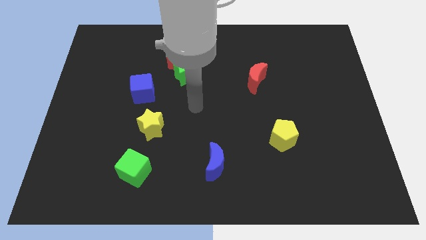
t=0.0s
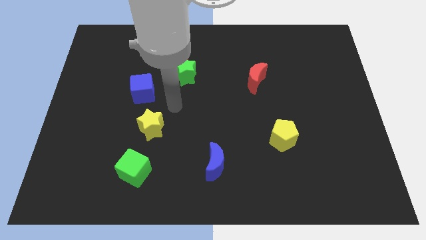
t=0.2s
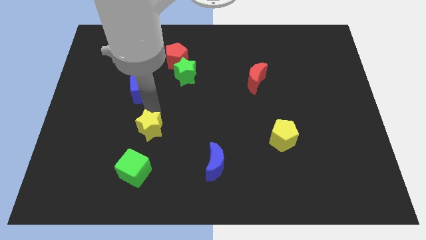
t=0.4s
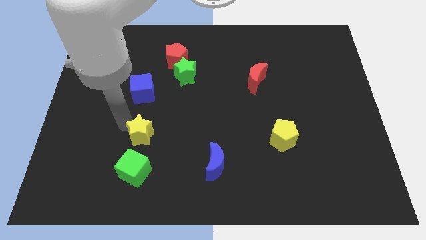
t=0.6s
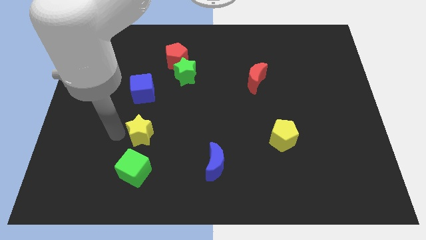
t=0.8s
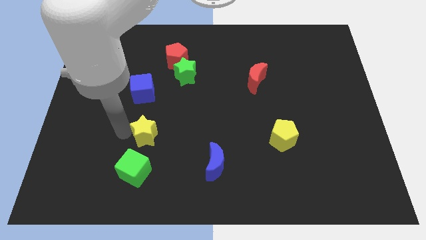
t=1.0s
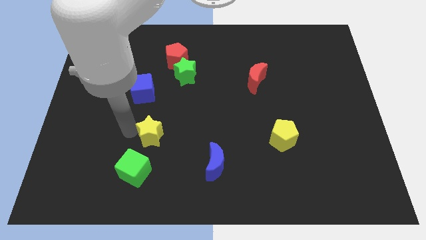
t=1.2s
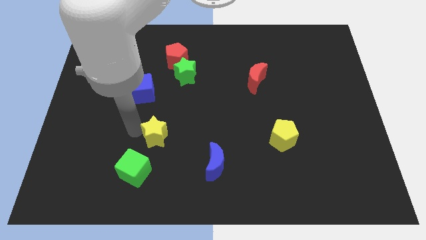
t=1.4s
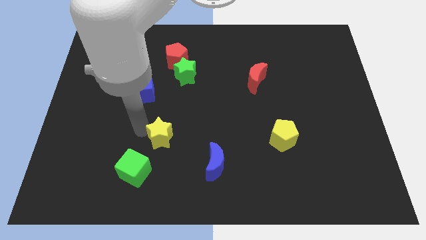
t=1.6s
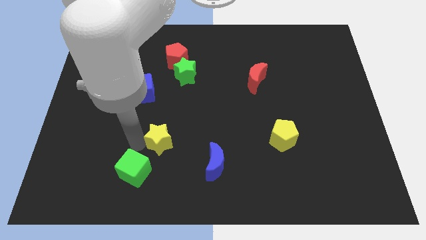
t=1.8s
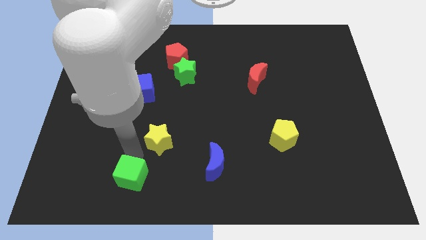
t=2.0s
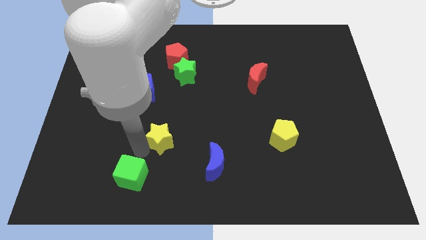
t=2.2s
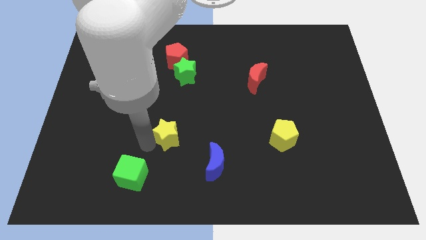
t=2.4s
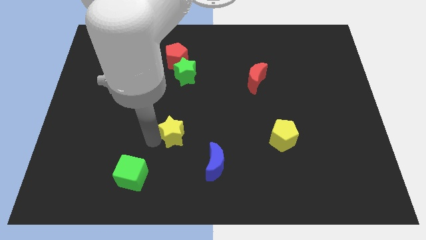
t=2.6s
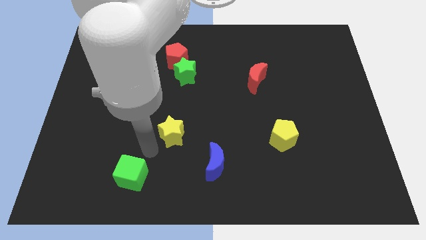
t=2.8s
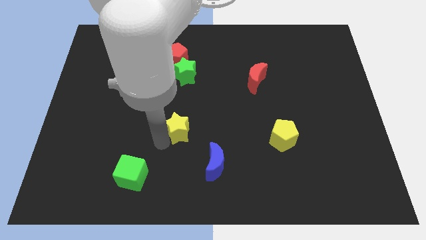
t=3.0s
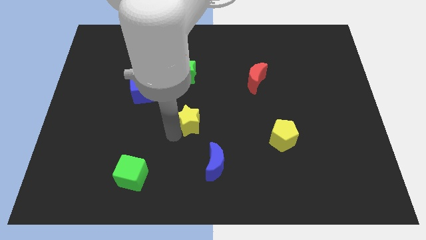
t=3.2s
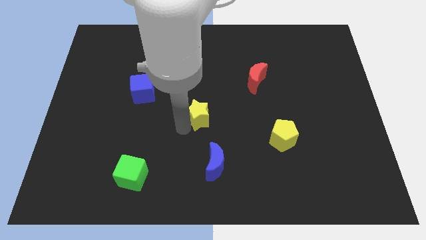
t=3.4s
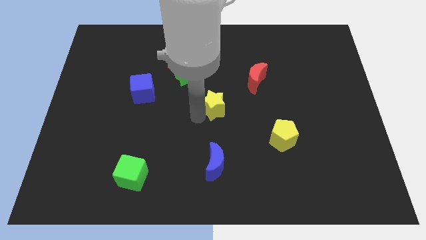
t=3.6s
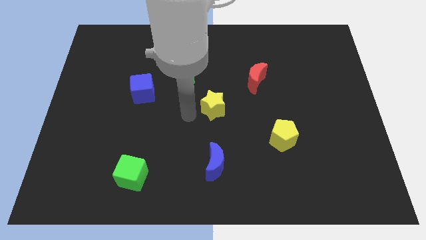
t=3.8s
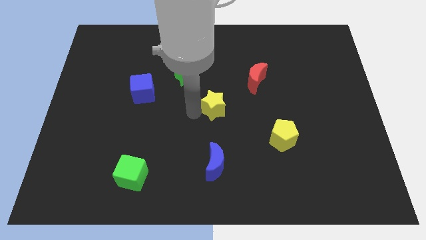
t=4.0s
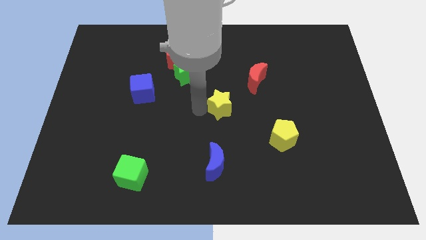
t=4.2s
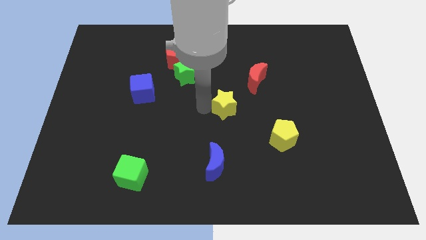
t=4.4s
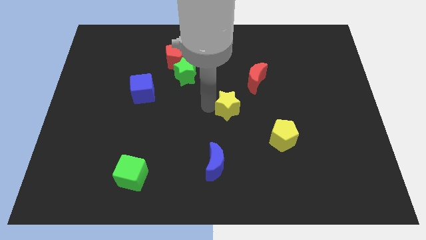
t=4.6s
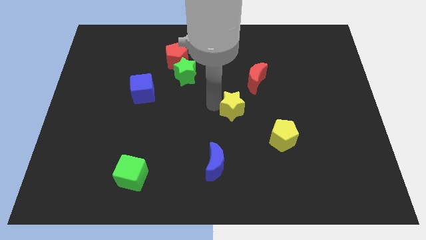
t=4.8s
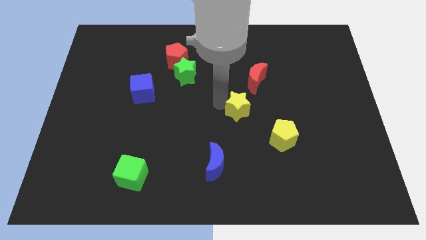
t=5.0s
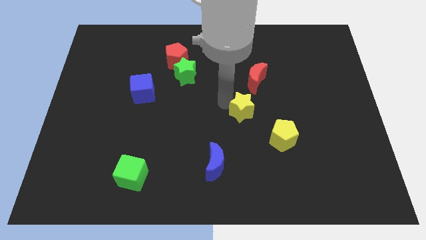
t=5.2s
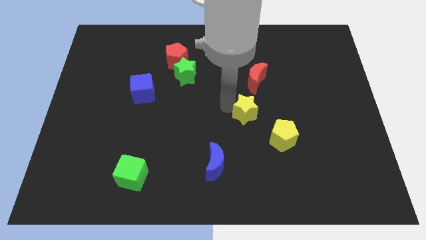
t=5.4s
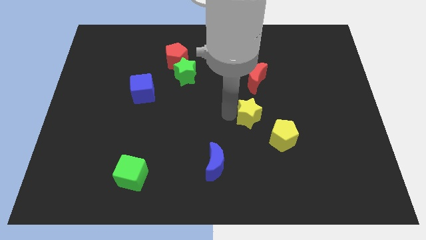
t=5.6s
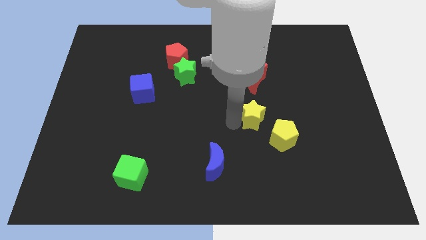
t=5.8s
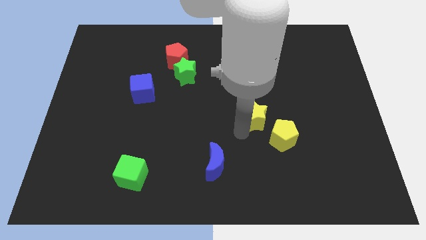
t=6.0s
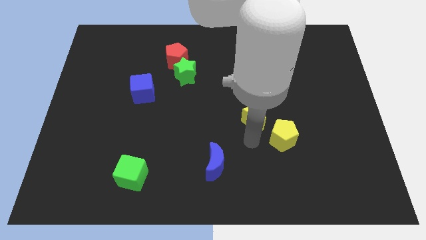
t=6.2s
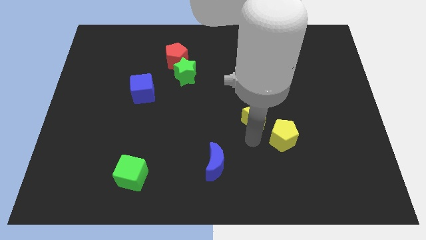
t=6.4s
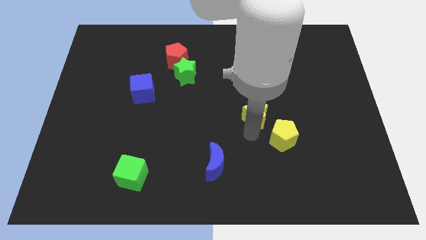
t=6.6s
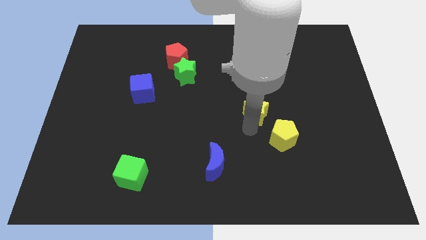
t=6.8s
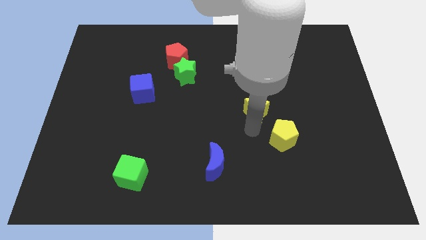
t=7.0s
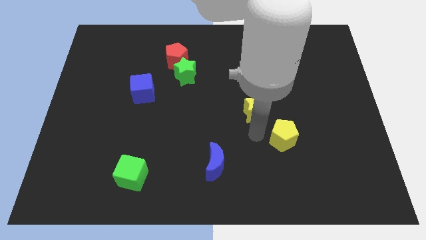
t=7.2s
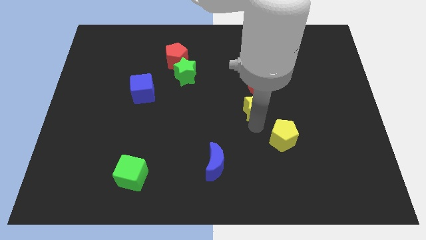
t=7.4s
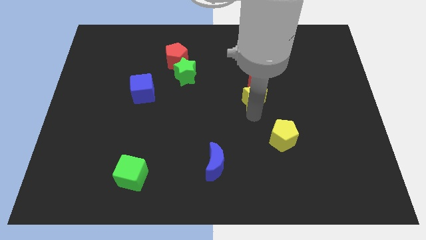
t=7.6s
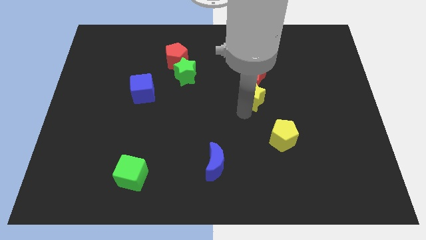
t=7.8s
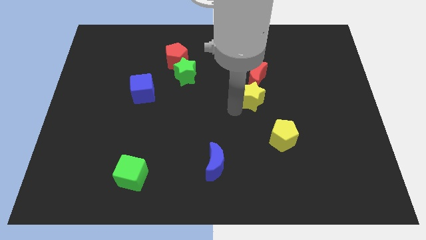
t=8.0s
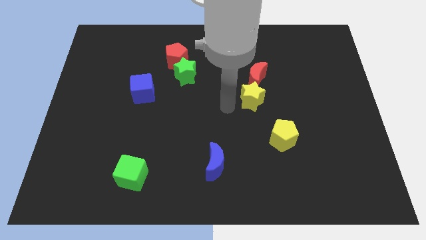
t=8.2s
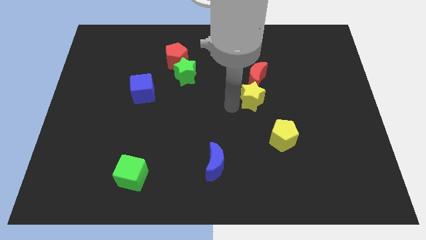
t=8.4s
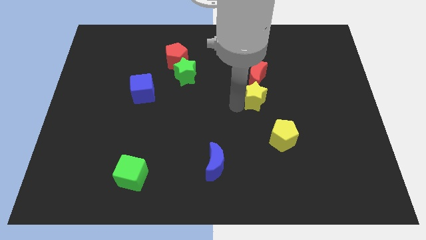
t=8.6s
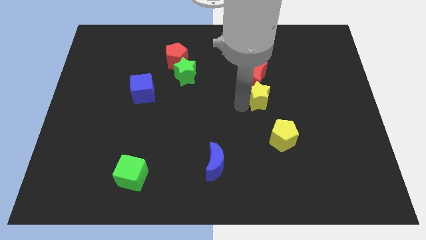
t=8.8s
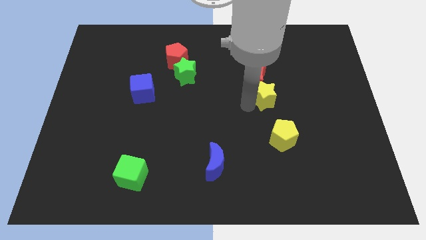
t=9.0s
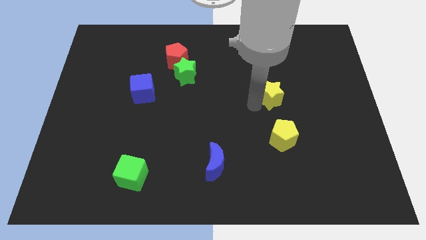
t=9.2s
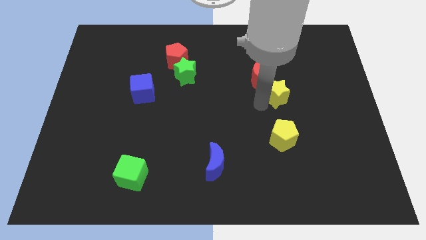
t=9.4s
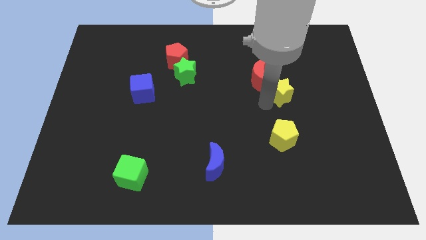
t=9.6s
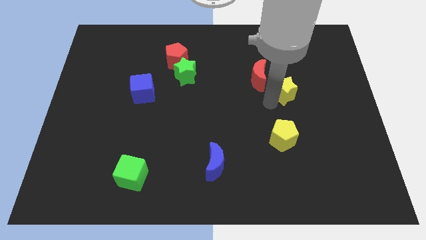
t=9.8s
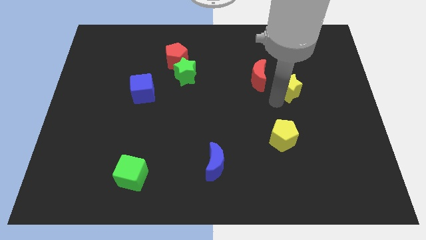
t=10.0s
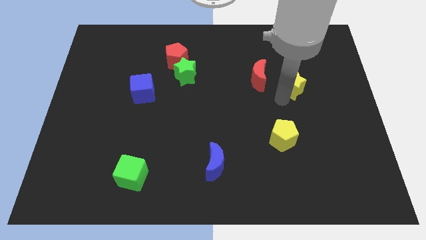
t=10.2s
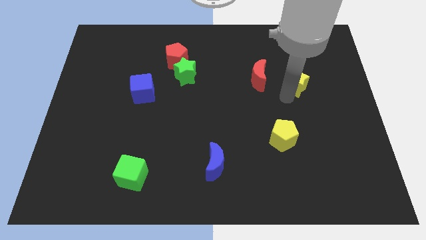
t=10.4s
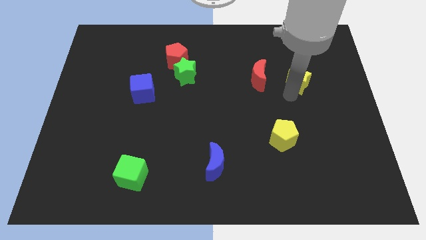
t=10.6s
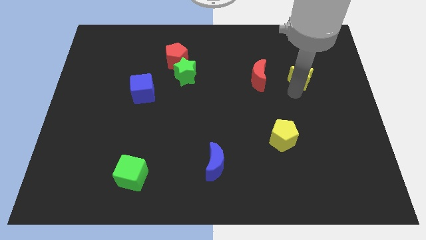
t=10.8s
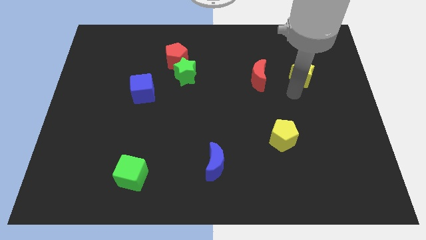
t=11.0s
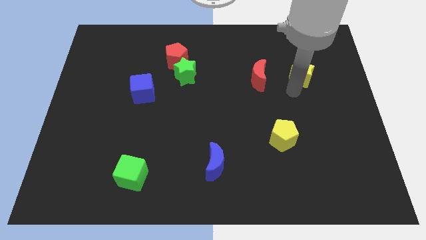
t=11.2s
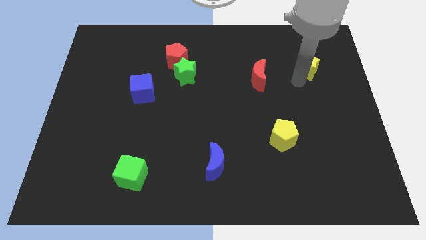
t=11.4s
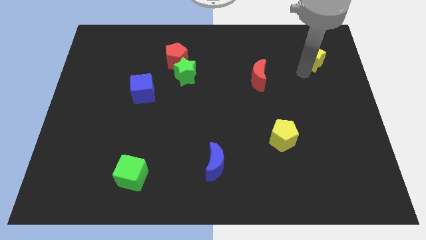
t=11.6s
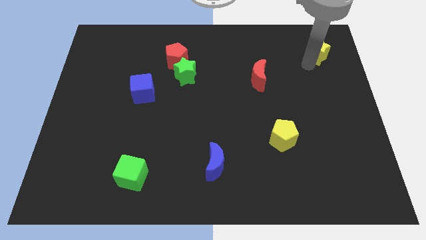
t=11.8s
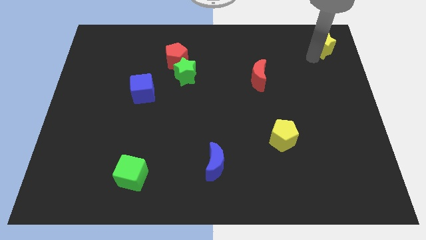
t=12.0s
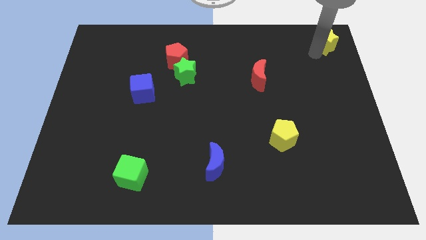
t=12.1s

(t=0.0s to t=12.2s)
put the yellow star to the top right of the board
